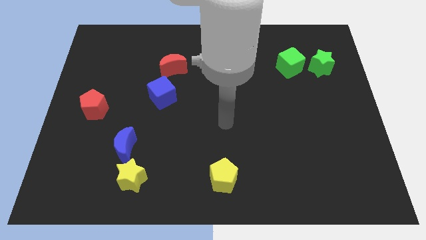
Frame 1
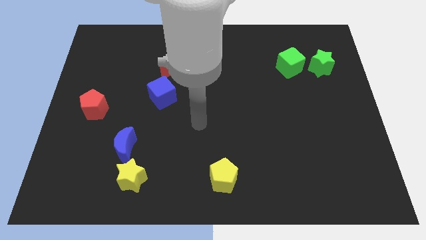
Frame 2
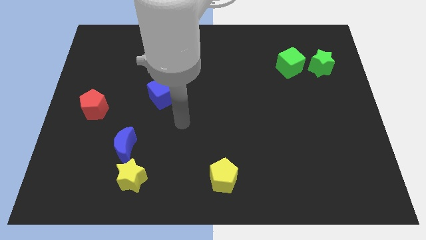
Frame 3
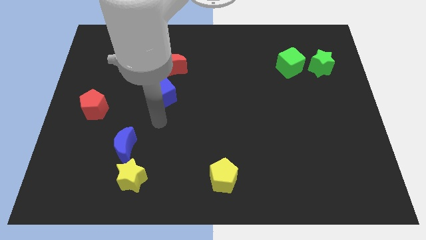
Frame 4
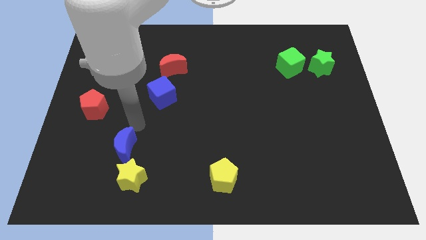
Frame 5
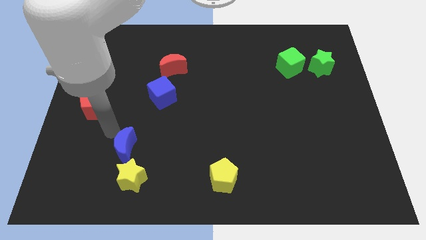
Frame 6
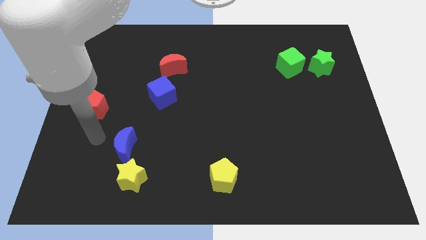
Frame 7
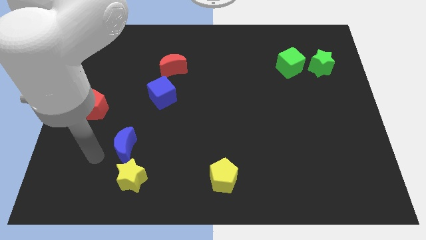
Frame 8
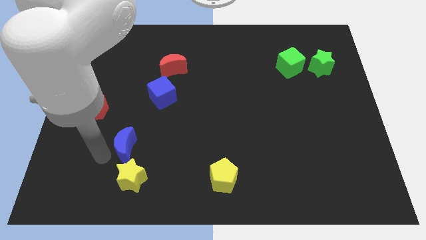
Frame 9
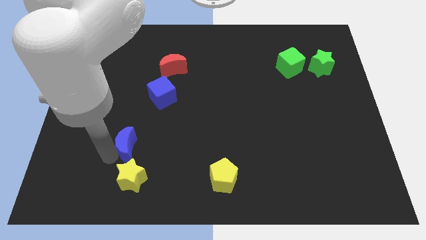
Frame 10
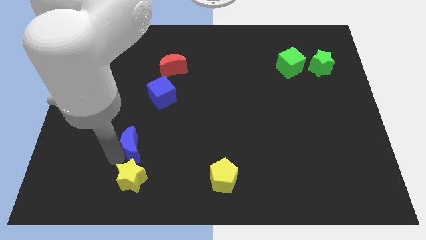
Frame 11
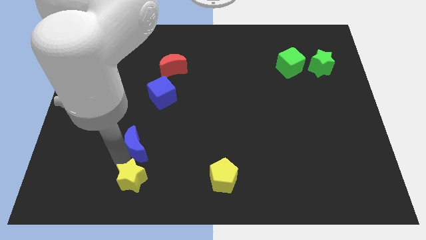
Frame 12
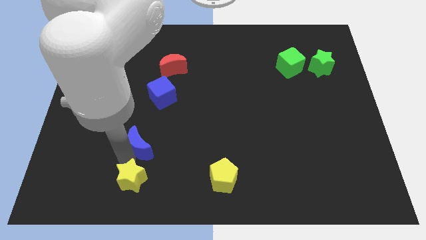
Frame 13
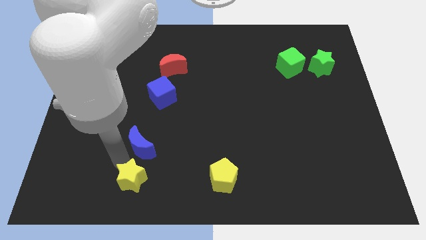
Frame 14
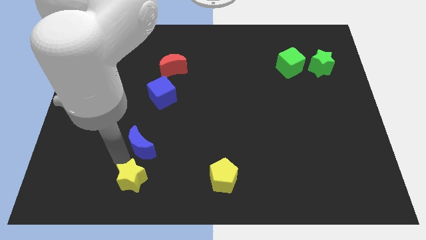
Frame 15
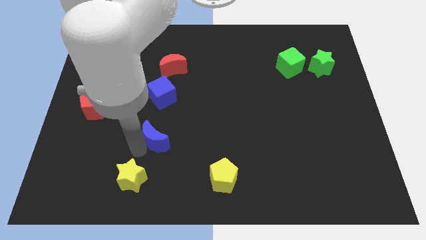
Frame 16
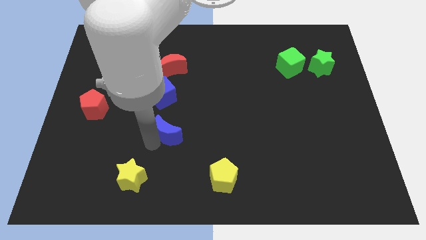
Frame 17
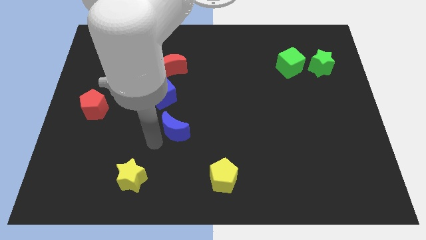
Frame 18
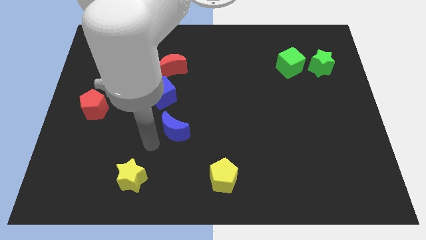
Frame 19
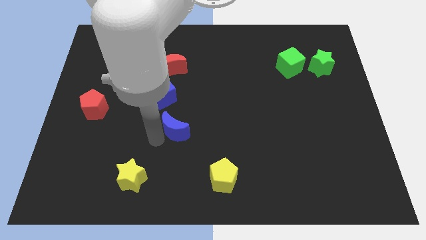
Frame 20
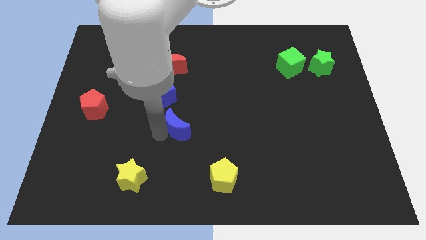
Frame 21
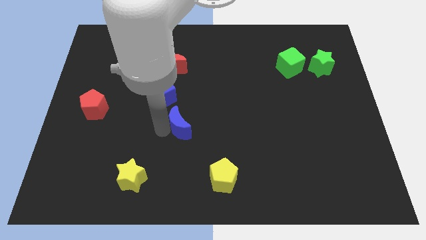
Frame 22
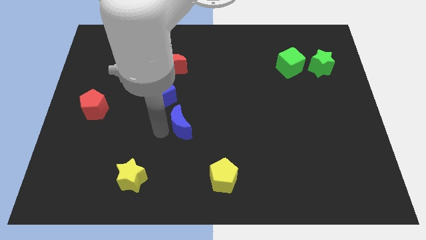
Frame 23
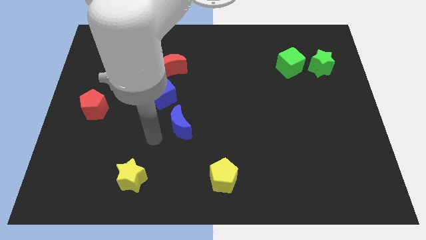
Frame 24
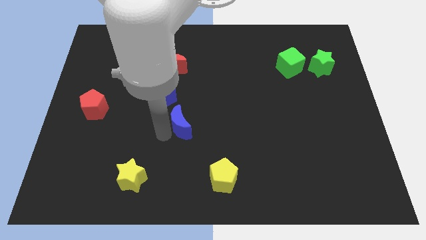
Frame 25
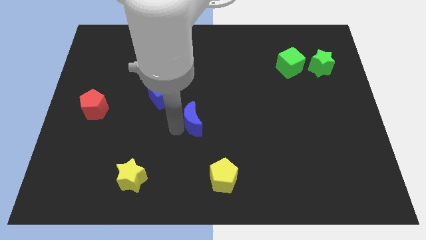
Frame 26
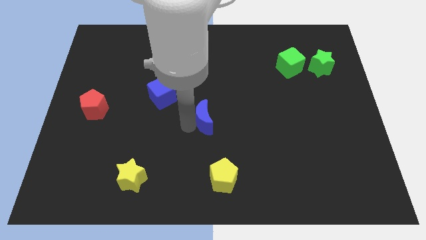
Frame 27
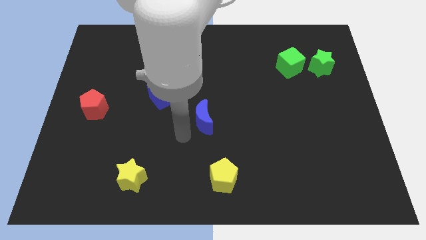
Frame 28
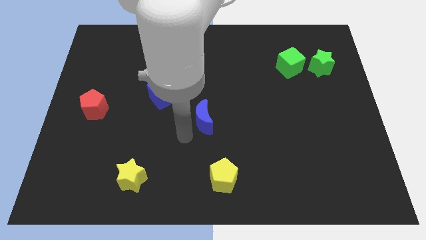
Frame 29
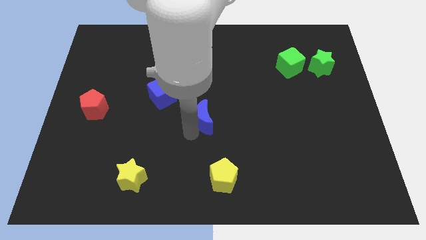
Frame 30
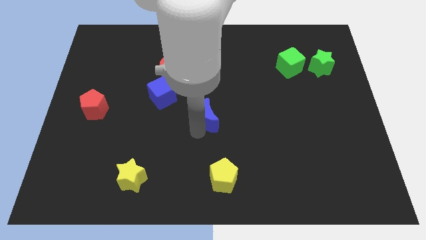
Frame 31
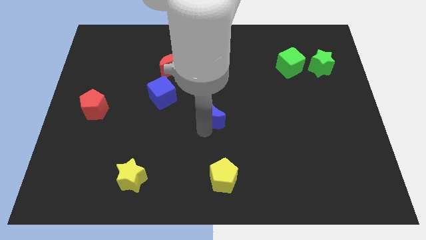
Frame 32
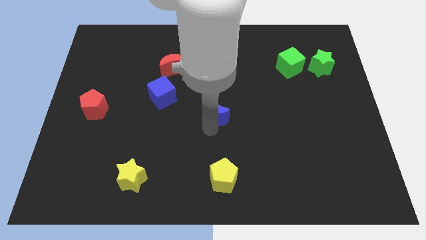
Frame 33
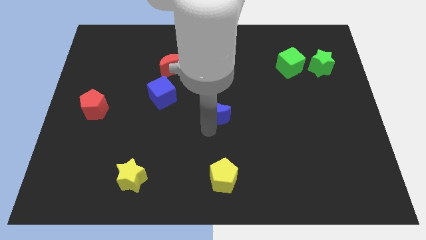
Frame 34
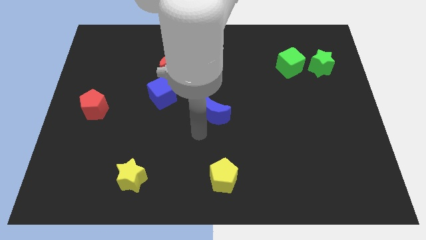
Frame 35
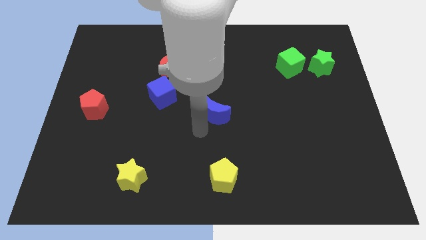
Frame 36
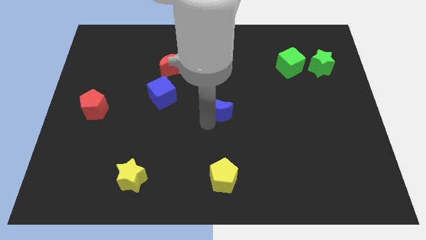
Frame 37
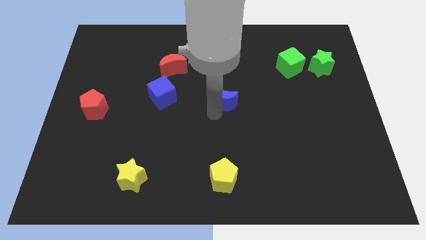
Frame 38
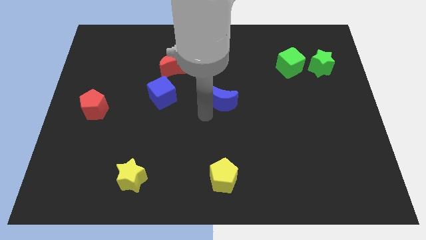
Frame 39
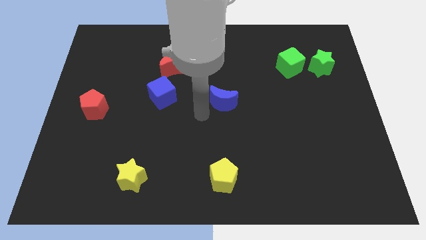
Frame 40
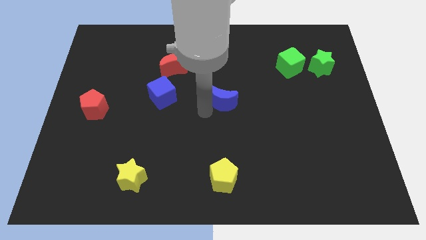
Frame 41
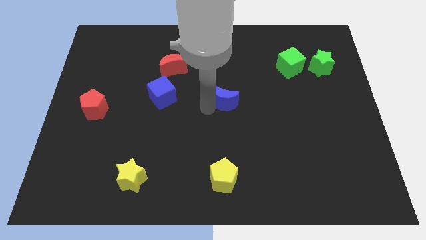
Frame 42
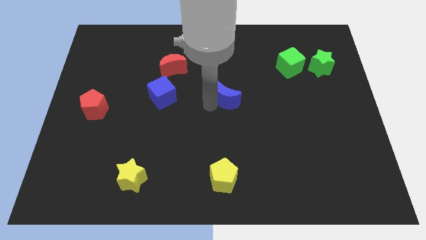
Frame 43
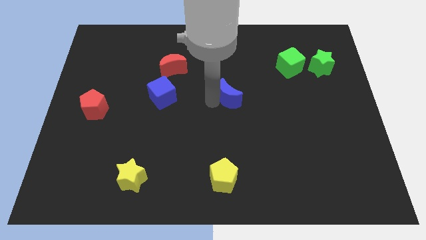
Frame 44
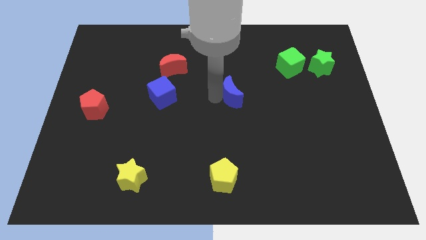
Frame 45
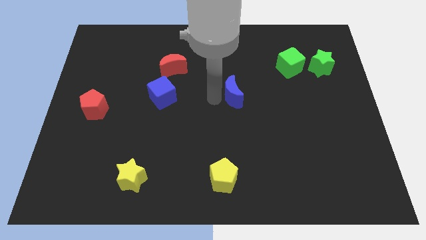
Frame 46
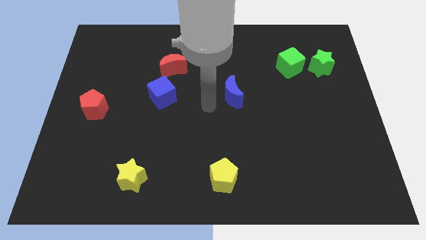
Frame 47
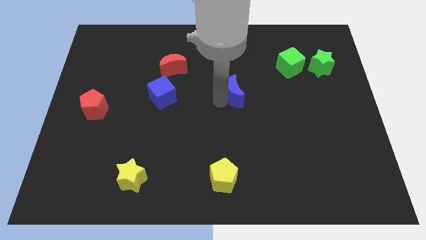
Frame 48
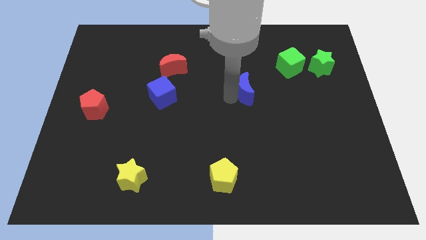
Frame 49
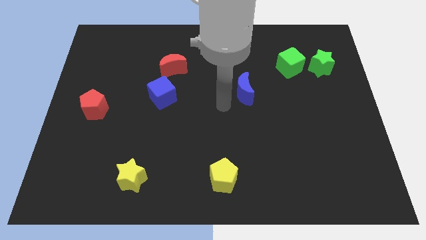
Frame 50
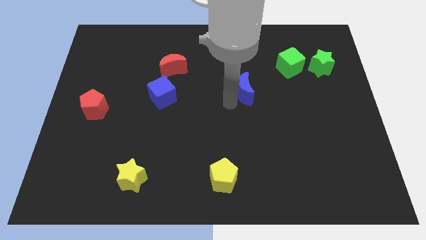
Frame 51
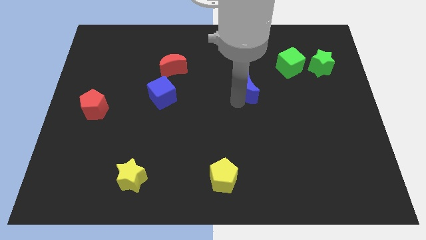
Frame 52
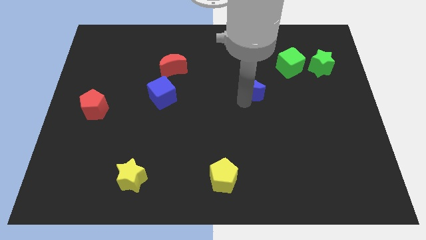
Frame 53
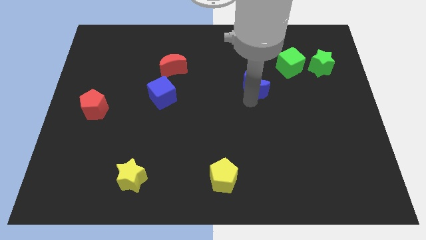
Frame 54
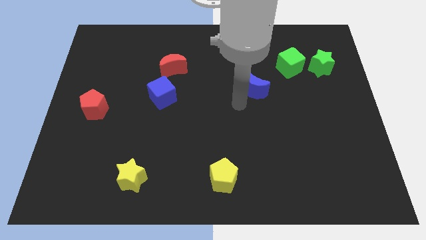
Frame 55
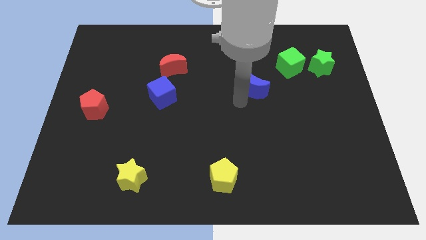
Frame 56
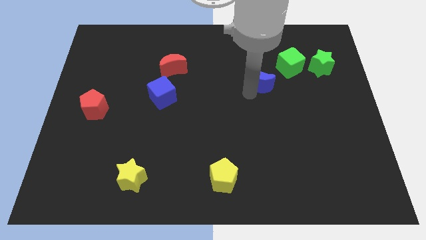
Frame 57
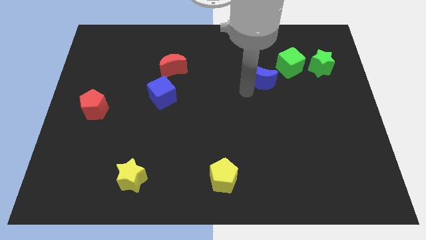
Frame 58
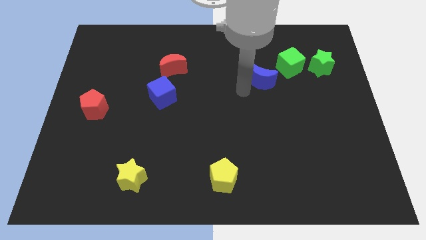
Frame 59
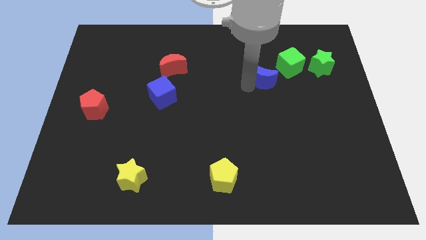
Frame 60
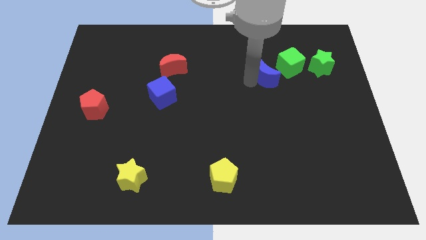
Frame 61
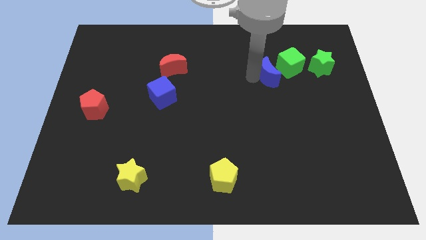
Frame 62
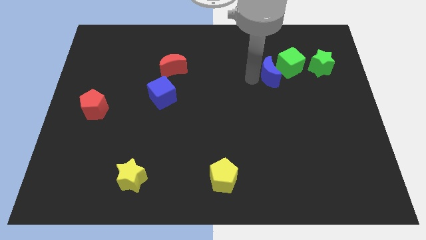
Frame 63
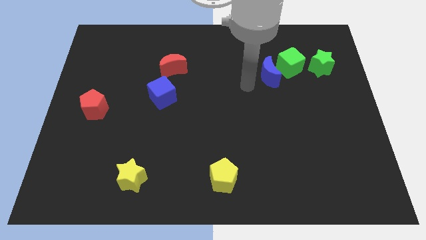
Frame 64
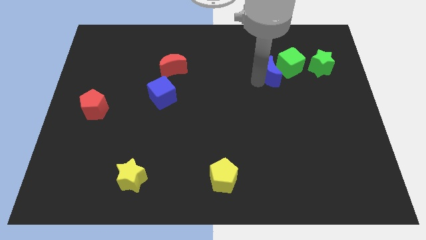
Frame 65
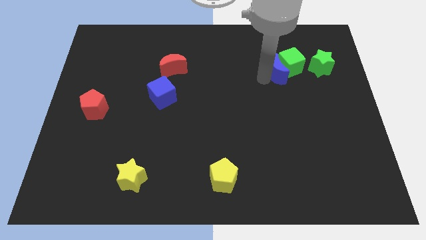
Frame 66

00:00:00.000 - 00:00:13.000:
slide the blue moon towards the green cube

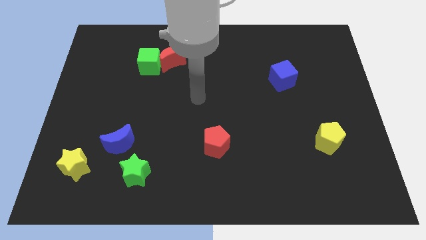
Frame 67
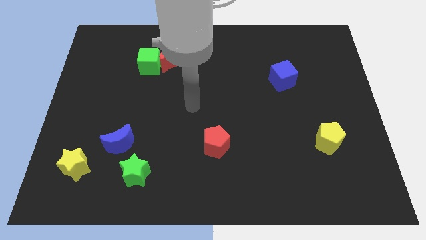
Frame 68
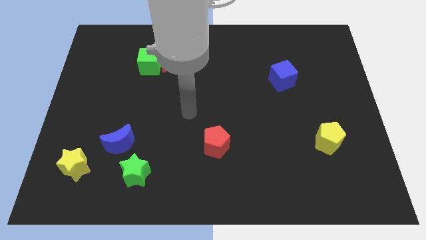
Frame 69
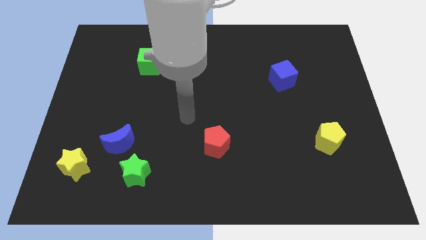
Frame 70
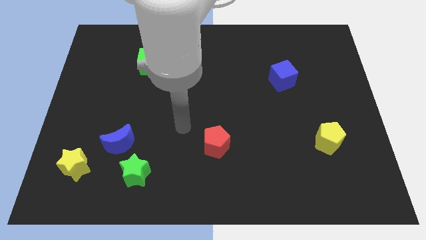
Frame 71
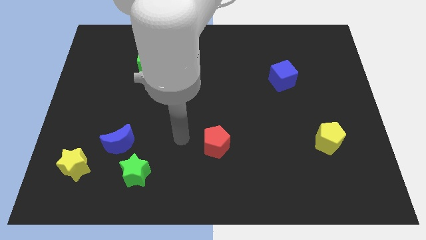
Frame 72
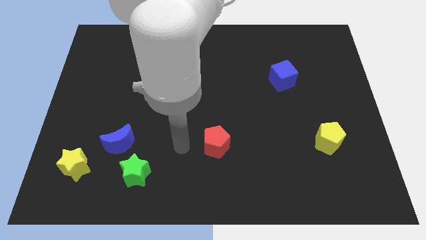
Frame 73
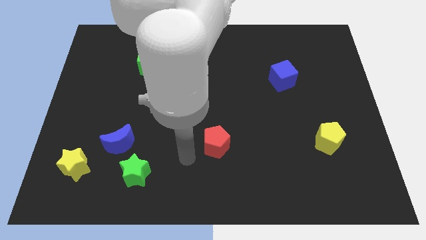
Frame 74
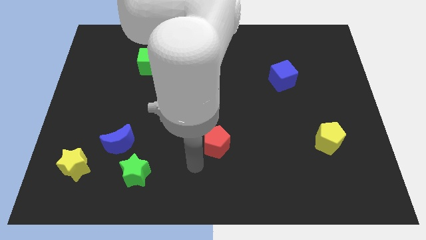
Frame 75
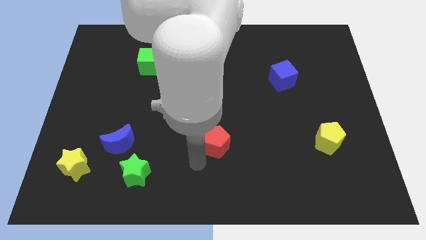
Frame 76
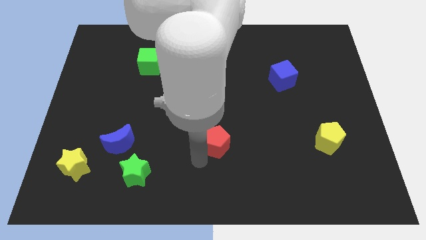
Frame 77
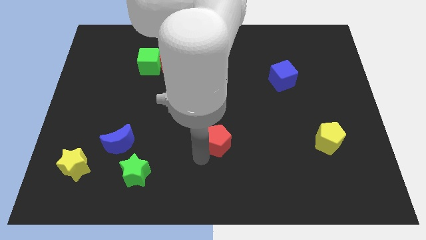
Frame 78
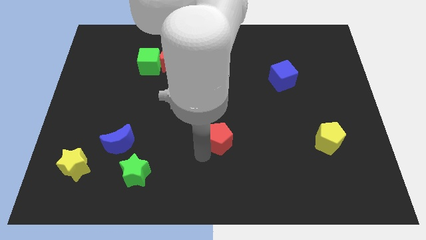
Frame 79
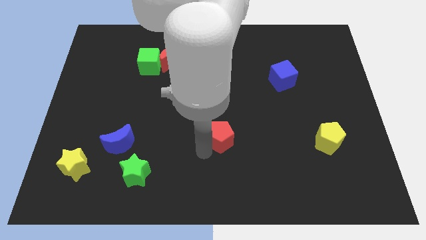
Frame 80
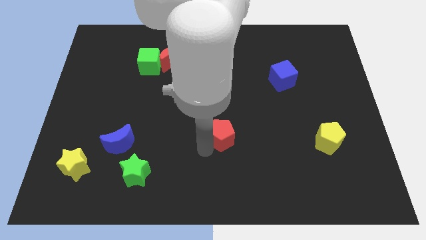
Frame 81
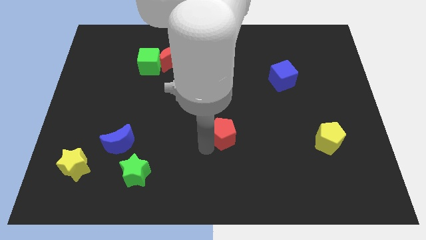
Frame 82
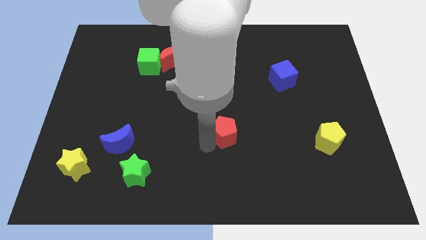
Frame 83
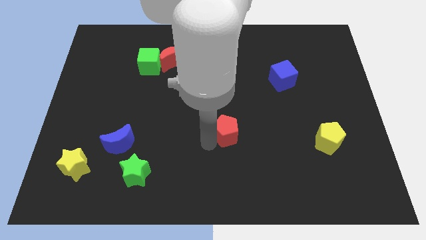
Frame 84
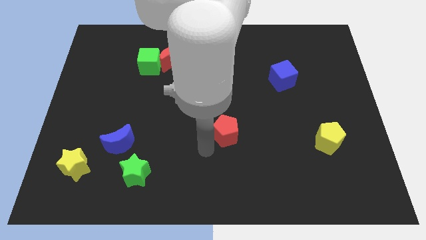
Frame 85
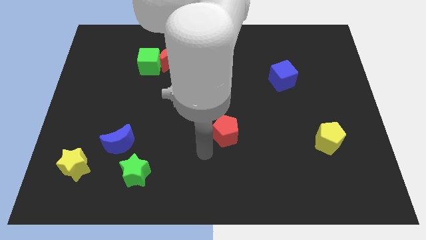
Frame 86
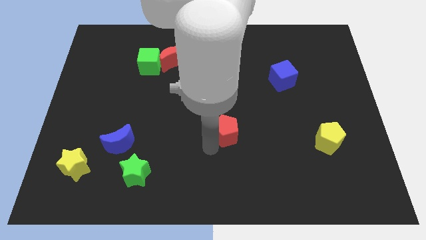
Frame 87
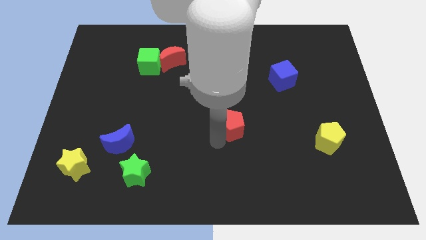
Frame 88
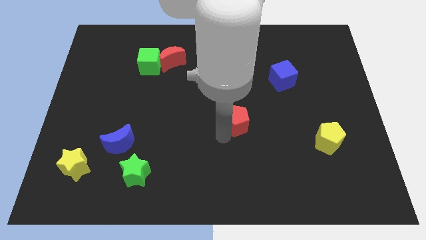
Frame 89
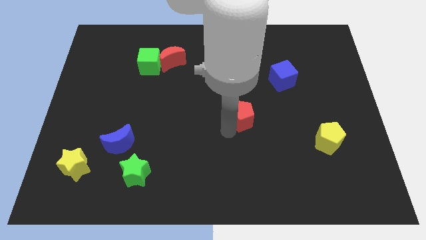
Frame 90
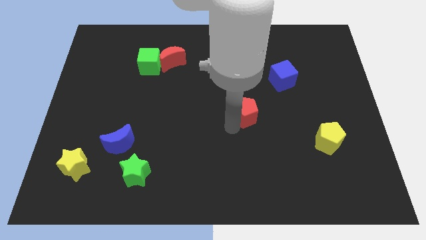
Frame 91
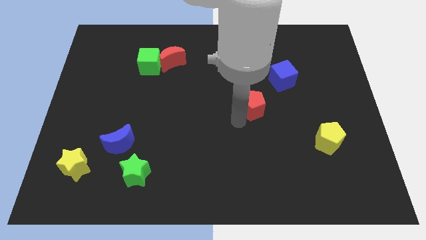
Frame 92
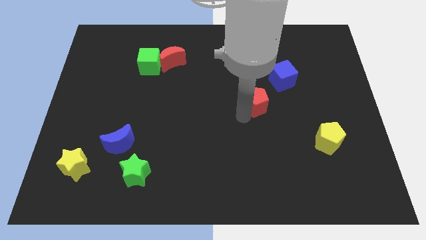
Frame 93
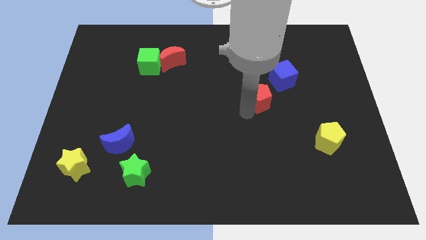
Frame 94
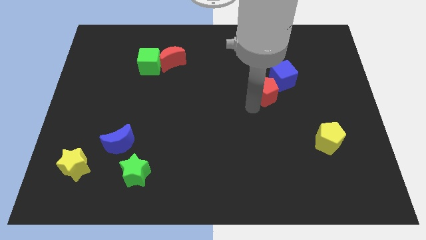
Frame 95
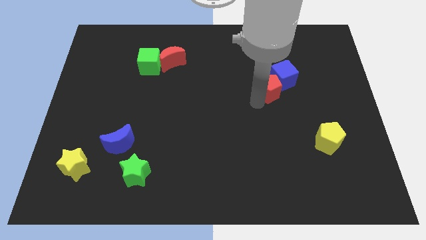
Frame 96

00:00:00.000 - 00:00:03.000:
push the red pentagon towards the blue cube
